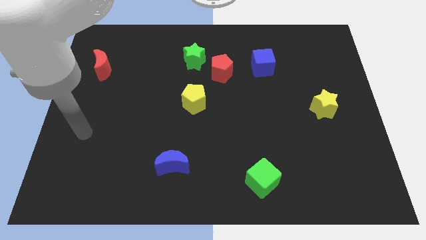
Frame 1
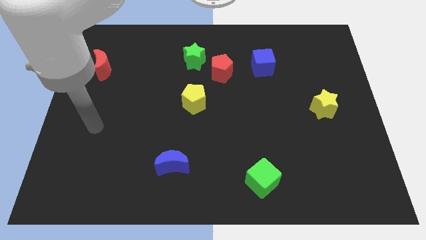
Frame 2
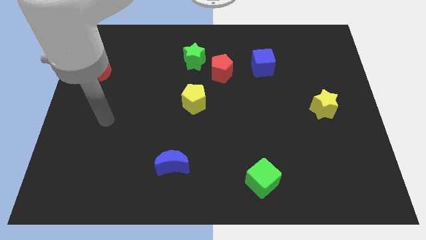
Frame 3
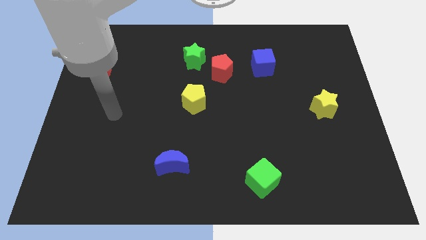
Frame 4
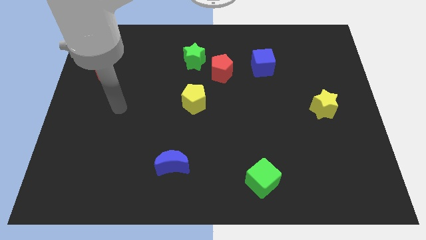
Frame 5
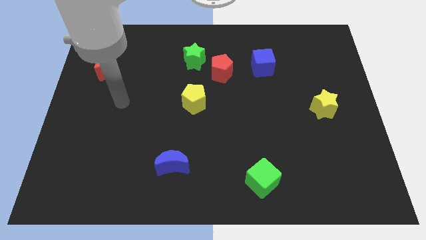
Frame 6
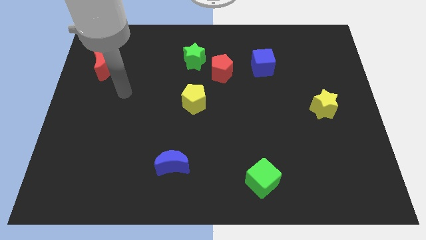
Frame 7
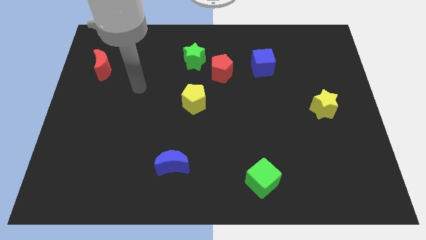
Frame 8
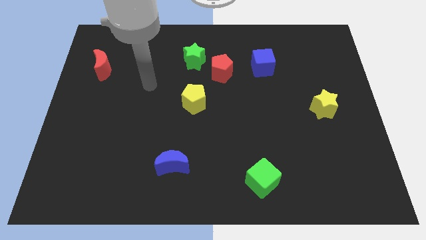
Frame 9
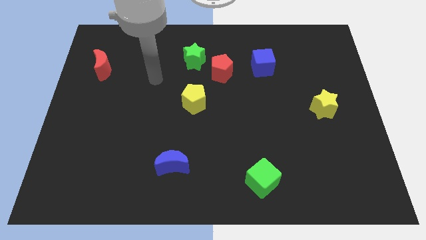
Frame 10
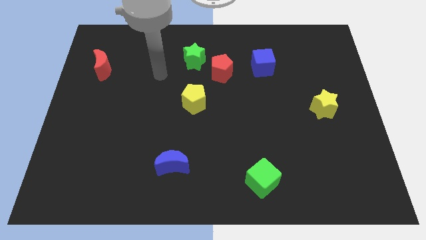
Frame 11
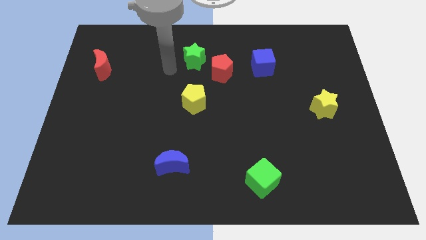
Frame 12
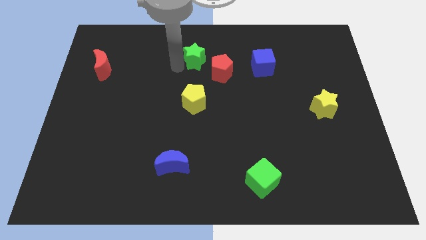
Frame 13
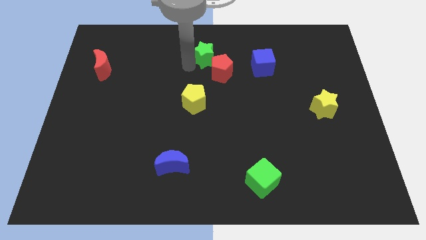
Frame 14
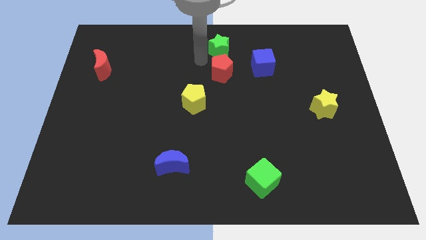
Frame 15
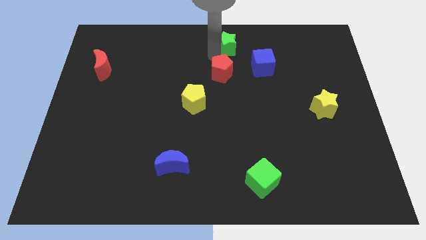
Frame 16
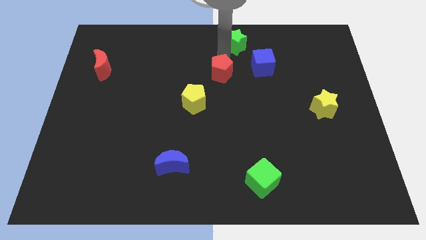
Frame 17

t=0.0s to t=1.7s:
separate the red pentagon from the green star

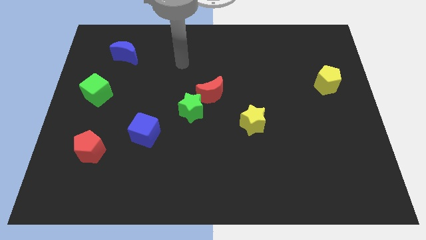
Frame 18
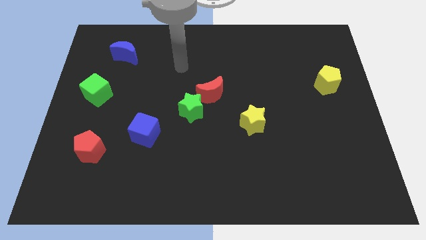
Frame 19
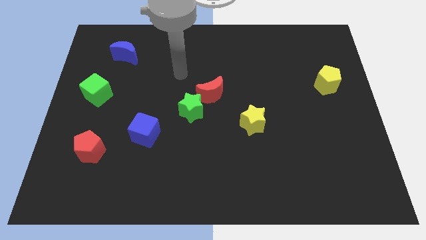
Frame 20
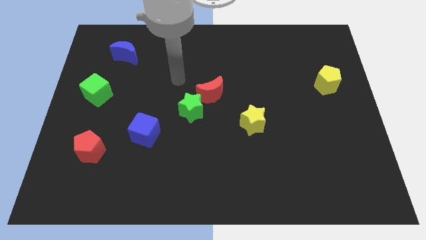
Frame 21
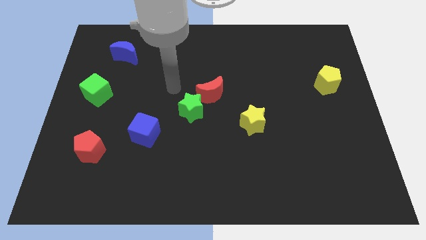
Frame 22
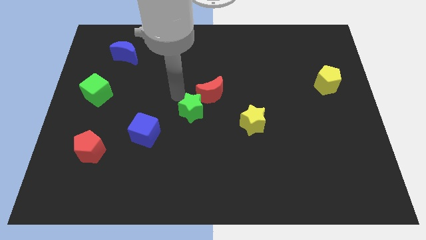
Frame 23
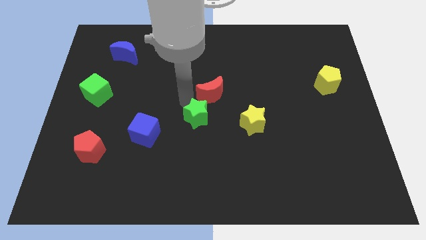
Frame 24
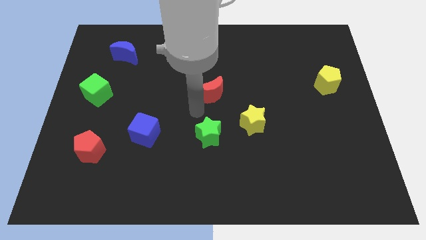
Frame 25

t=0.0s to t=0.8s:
separate the red moon from the green star

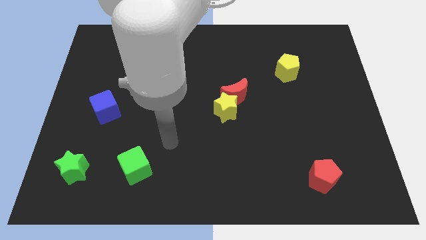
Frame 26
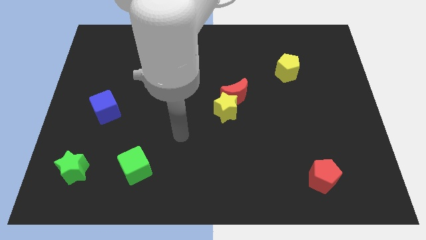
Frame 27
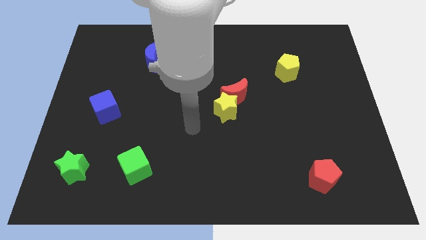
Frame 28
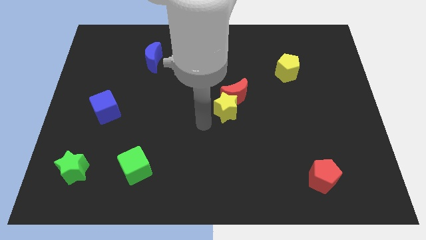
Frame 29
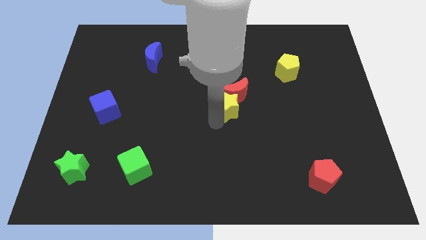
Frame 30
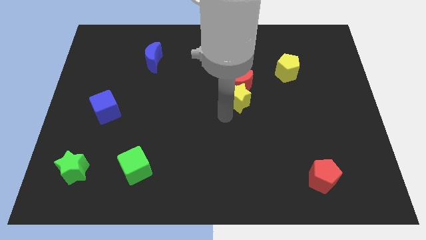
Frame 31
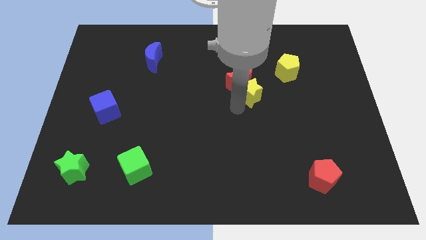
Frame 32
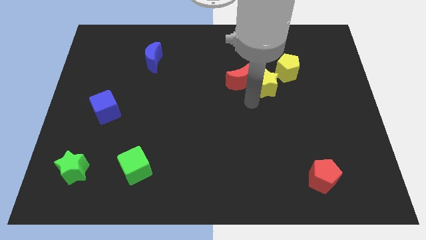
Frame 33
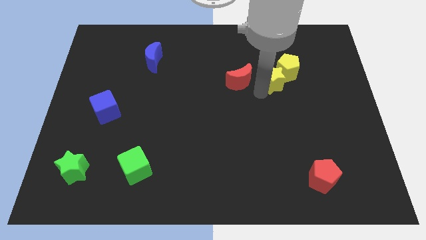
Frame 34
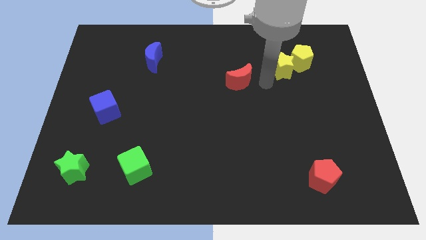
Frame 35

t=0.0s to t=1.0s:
move the red moon away from the yellow star

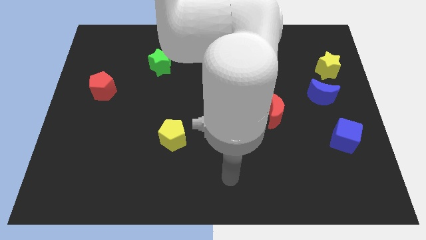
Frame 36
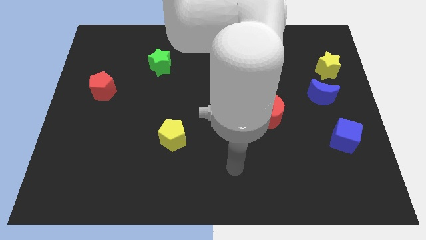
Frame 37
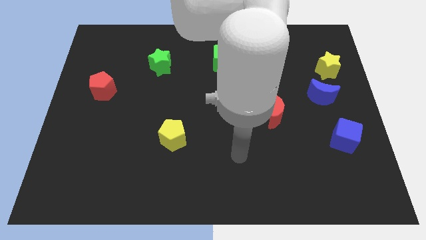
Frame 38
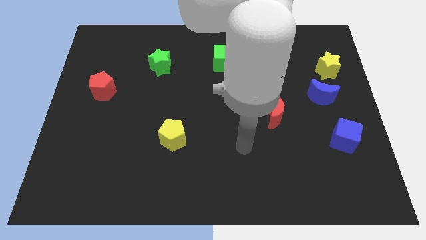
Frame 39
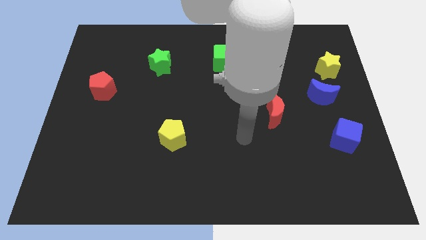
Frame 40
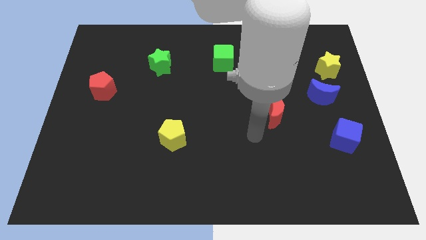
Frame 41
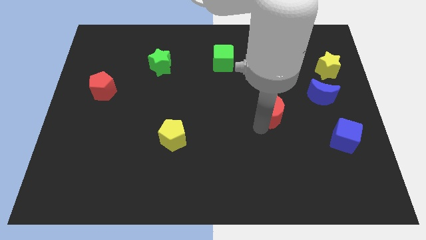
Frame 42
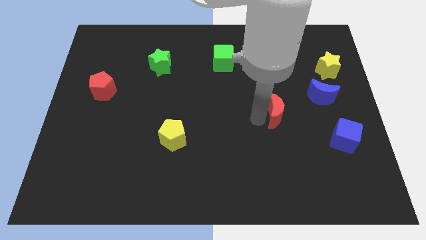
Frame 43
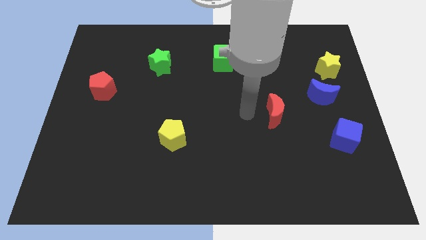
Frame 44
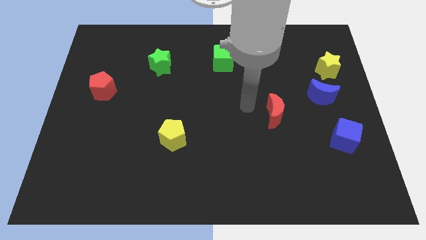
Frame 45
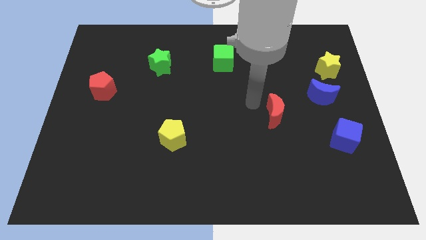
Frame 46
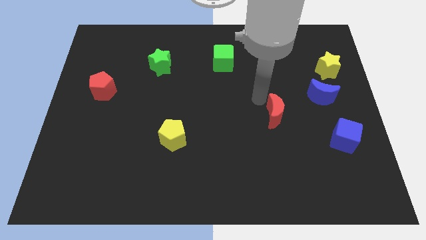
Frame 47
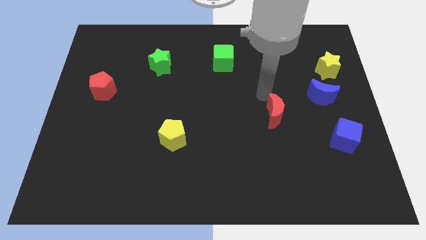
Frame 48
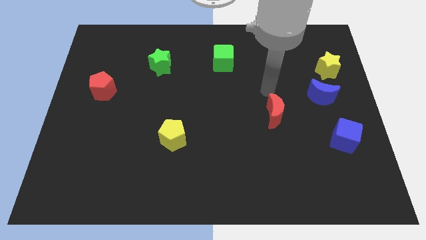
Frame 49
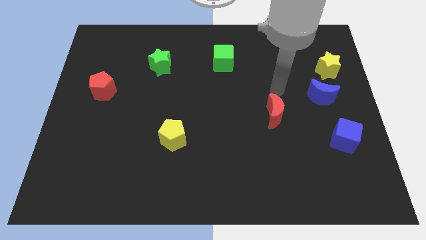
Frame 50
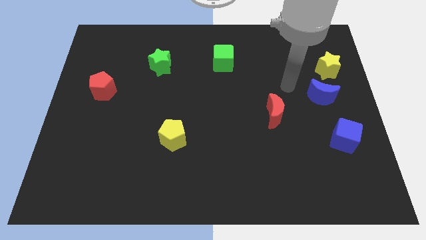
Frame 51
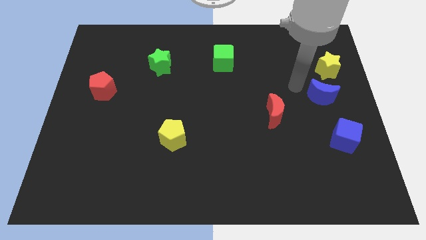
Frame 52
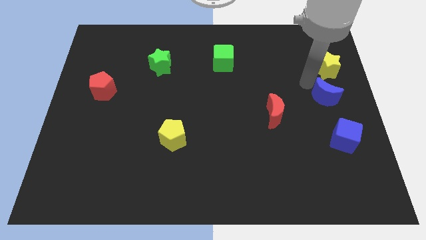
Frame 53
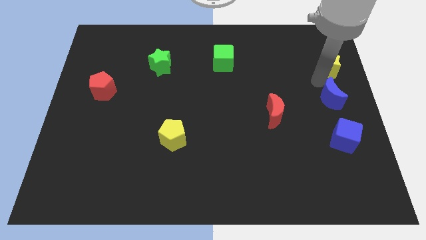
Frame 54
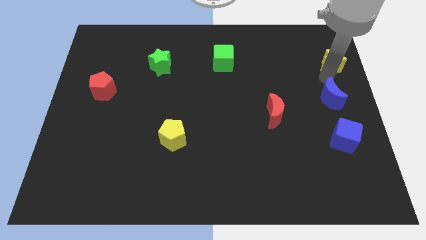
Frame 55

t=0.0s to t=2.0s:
move the blue moon away from the yellow star

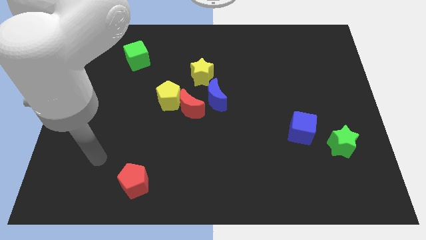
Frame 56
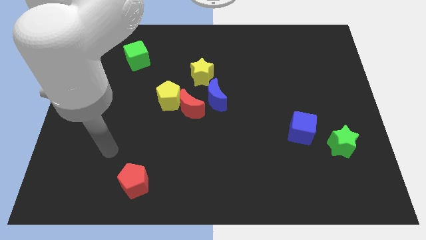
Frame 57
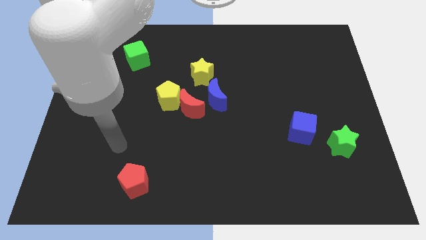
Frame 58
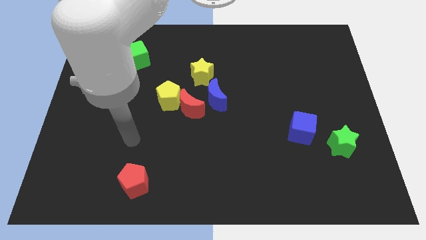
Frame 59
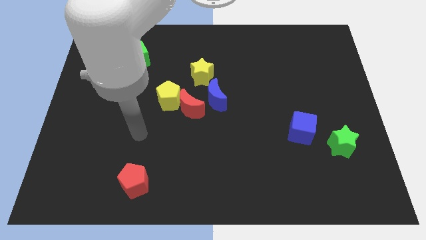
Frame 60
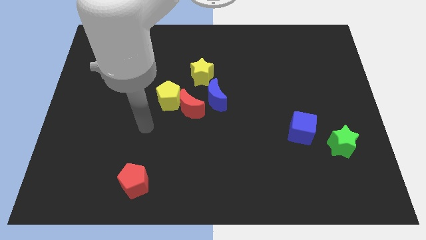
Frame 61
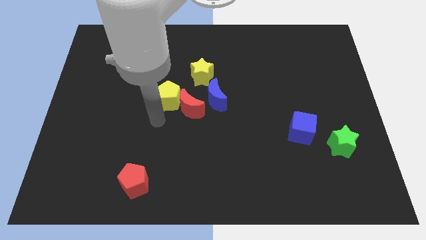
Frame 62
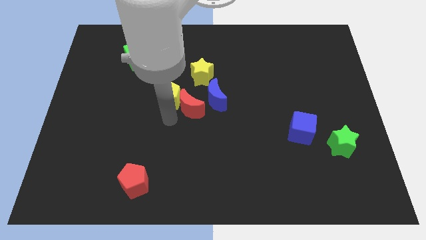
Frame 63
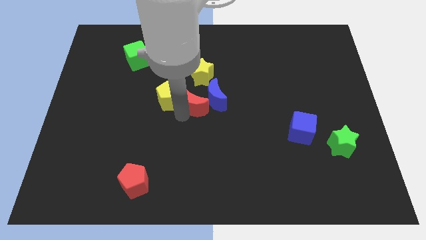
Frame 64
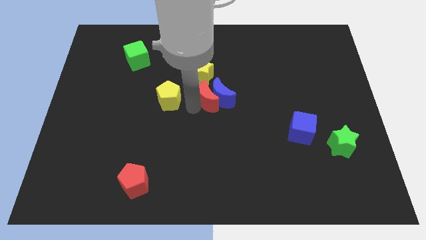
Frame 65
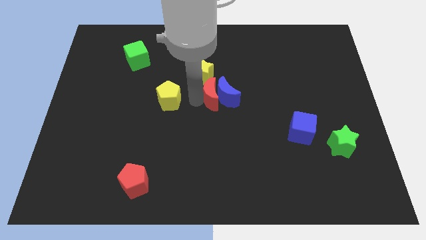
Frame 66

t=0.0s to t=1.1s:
move the yellow pentagon away from the red moon

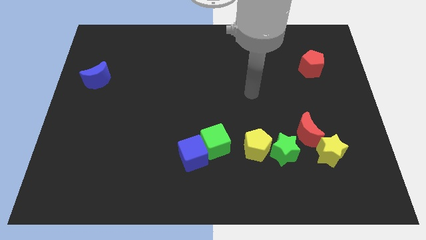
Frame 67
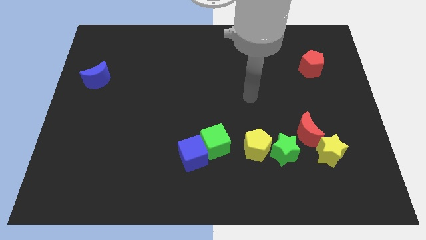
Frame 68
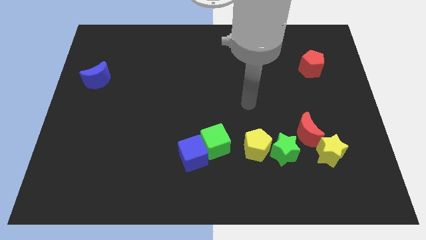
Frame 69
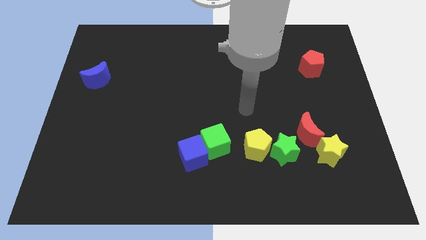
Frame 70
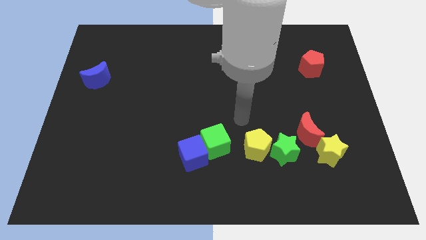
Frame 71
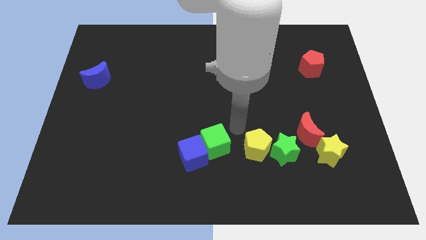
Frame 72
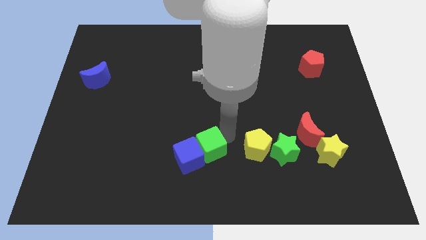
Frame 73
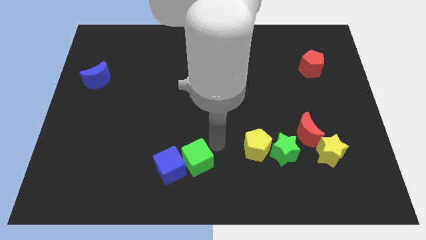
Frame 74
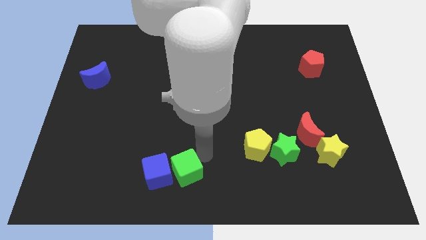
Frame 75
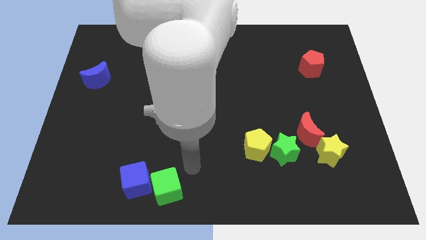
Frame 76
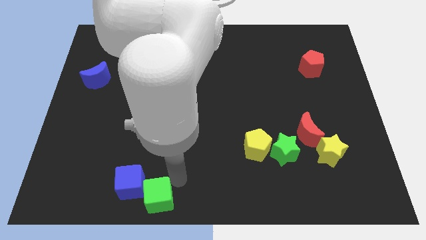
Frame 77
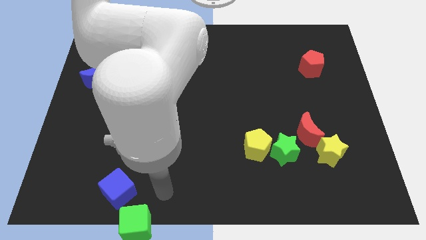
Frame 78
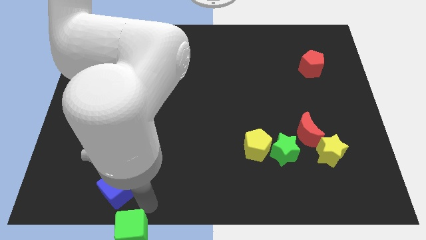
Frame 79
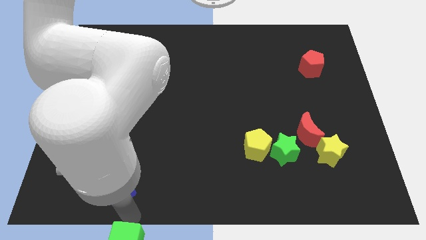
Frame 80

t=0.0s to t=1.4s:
move the blue cube away from the green cube

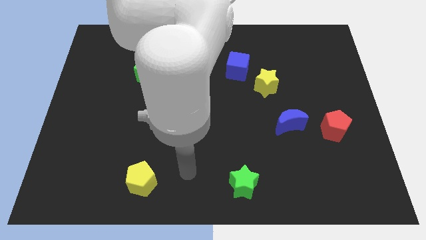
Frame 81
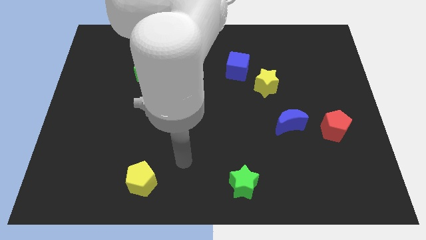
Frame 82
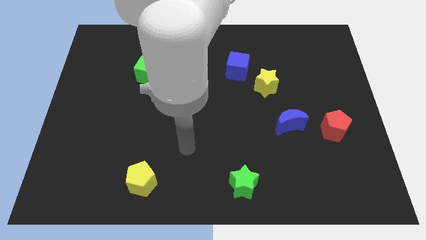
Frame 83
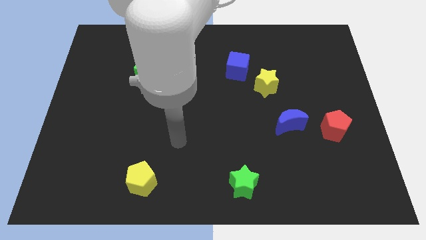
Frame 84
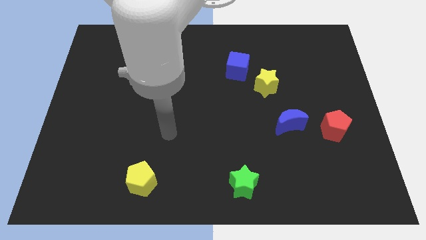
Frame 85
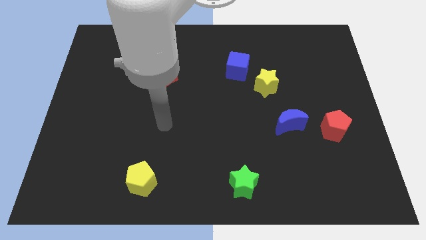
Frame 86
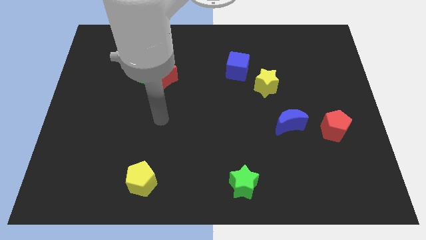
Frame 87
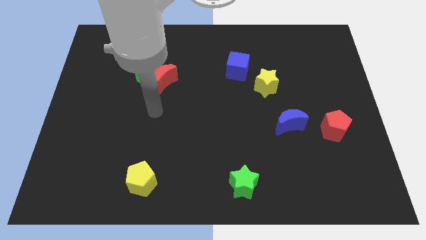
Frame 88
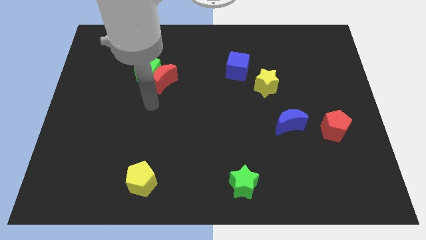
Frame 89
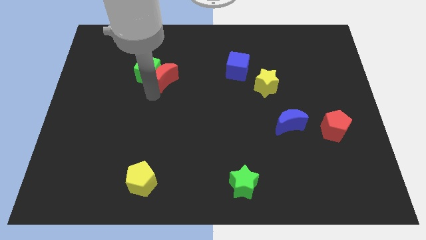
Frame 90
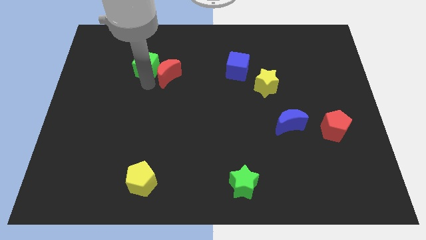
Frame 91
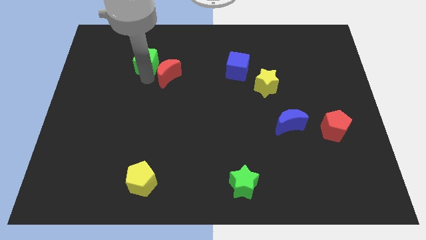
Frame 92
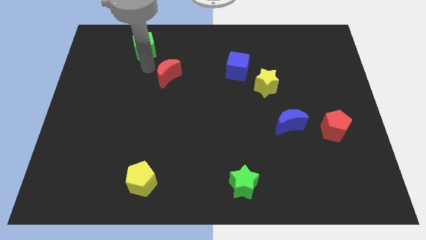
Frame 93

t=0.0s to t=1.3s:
separate the red moon from the green cube
